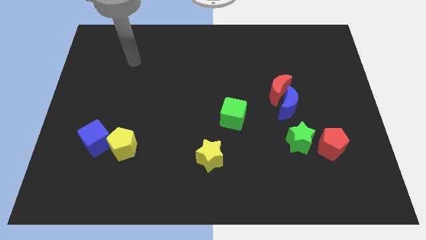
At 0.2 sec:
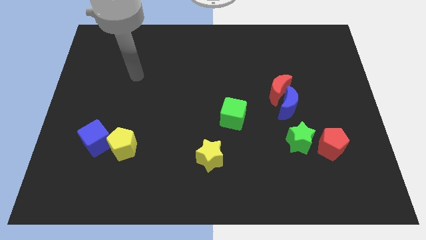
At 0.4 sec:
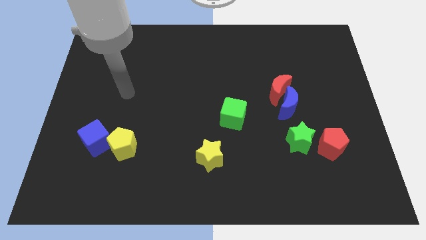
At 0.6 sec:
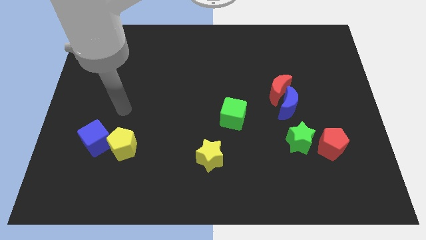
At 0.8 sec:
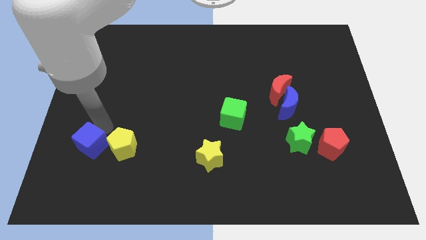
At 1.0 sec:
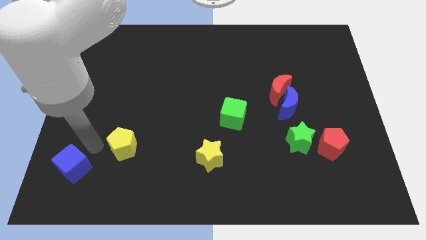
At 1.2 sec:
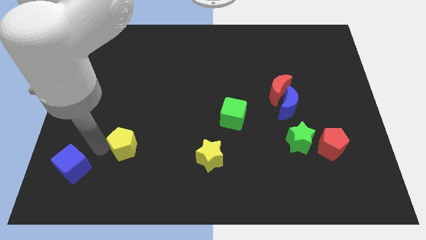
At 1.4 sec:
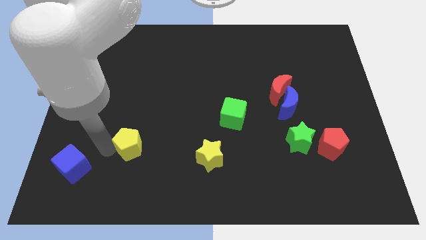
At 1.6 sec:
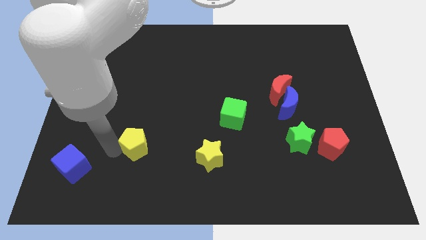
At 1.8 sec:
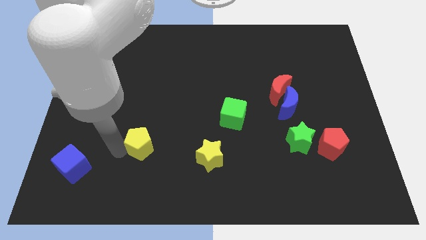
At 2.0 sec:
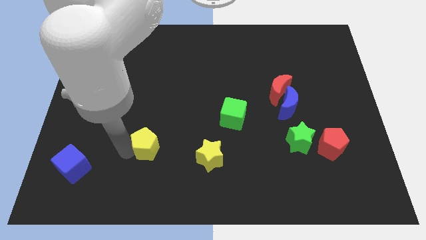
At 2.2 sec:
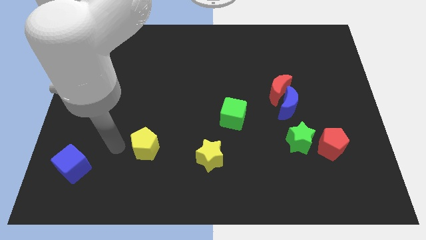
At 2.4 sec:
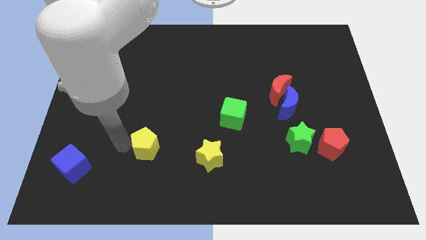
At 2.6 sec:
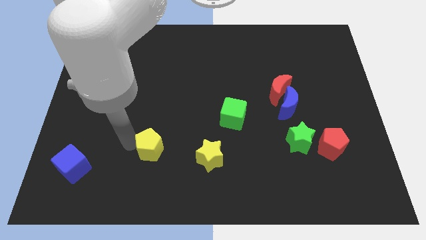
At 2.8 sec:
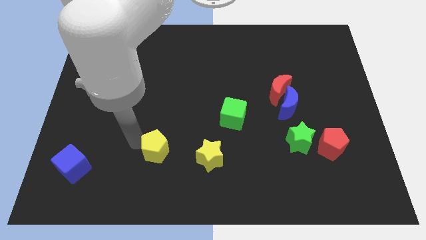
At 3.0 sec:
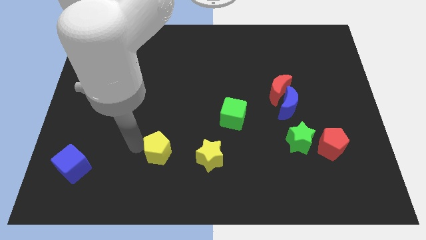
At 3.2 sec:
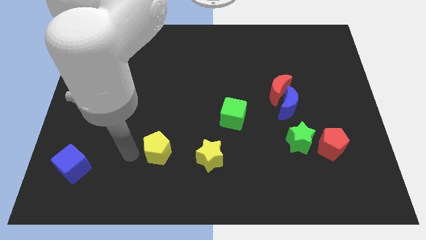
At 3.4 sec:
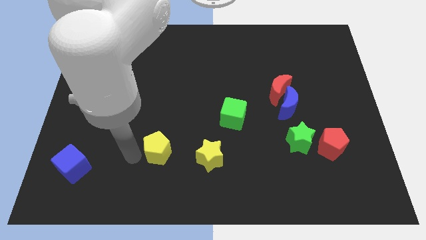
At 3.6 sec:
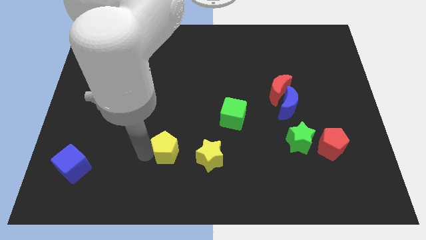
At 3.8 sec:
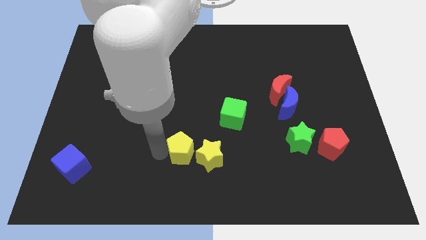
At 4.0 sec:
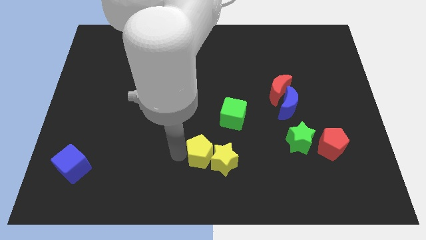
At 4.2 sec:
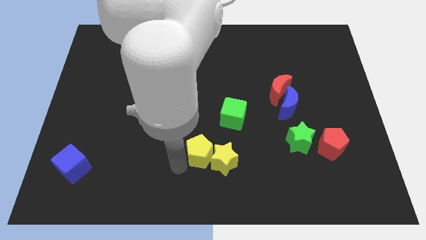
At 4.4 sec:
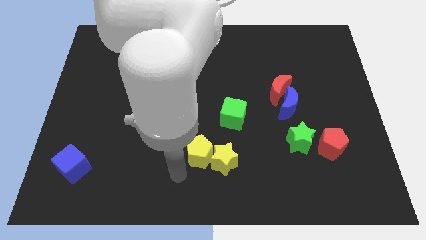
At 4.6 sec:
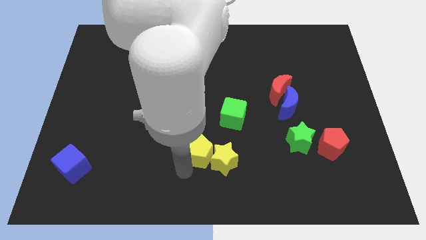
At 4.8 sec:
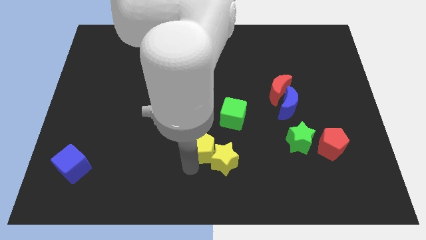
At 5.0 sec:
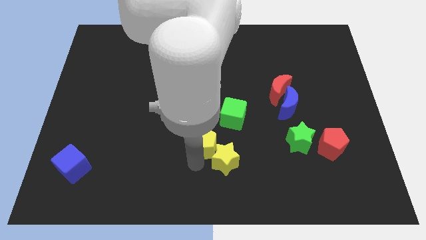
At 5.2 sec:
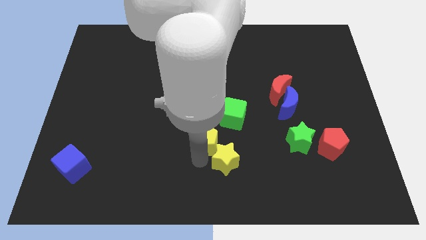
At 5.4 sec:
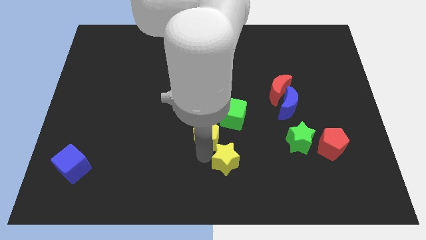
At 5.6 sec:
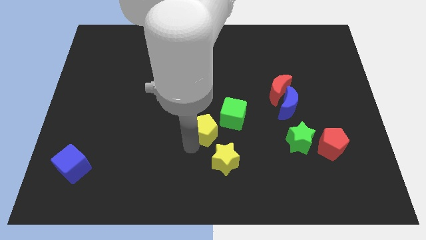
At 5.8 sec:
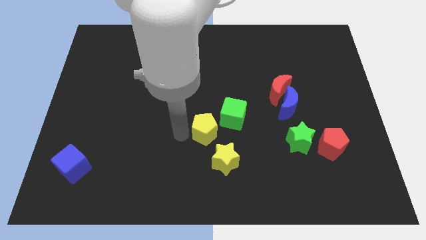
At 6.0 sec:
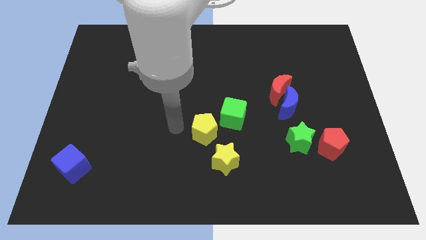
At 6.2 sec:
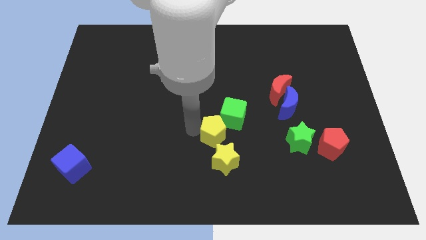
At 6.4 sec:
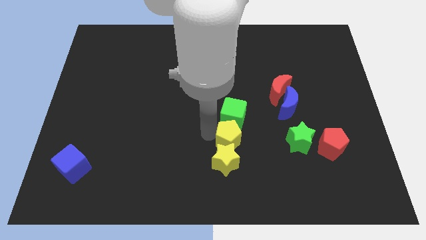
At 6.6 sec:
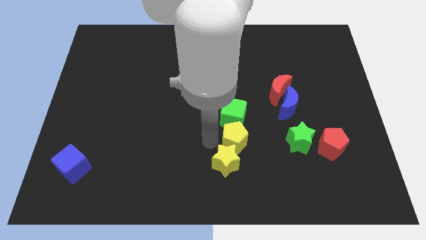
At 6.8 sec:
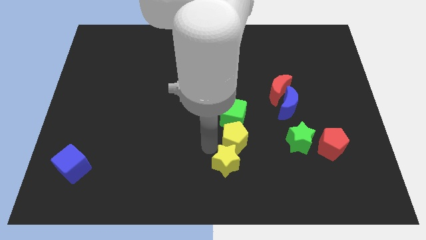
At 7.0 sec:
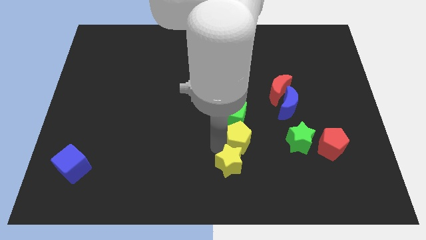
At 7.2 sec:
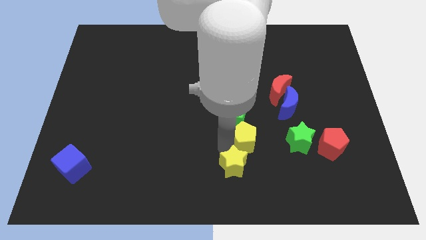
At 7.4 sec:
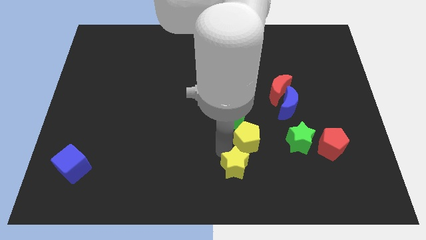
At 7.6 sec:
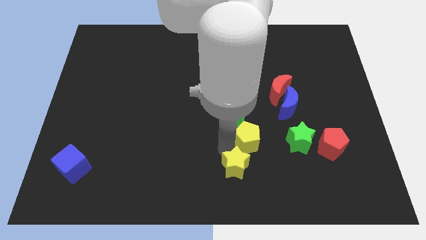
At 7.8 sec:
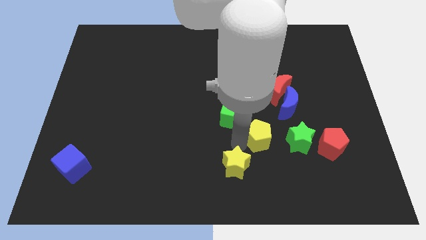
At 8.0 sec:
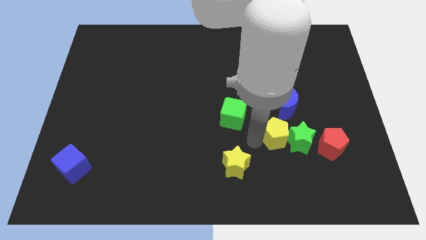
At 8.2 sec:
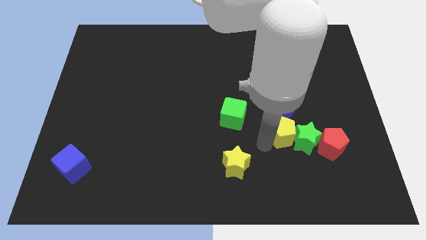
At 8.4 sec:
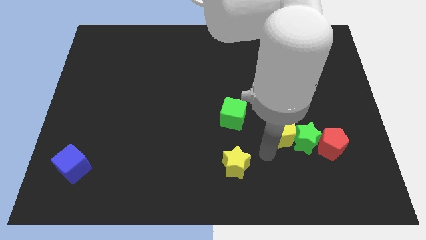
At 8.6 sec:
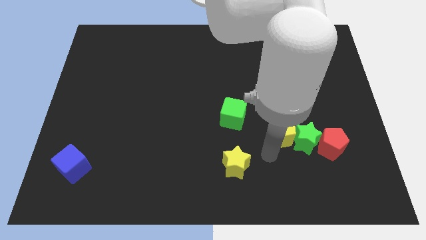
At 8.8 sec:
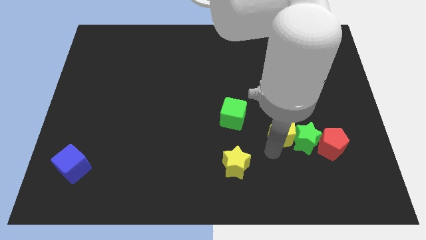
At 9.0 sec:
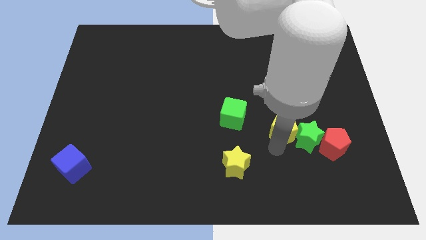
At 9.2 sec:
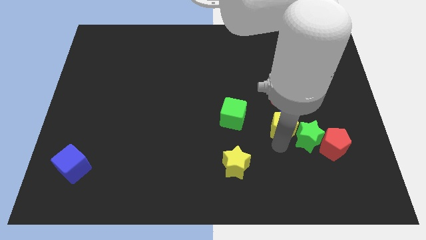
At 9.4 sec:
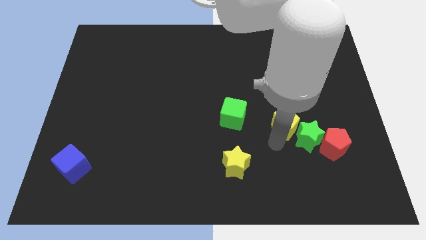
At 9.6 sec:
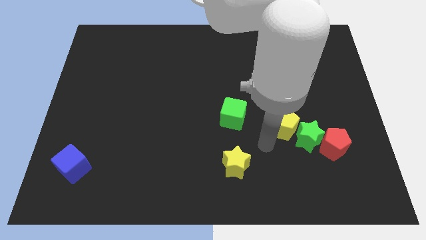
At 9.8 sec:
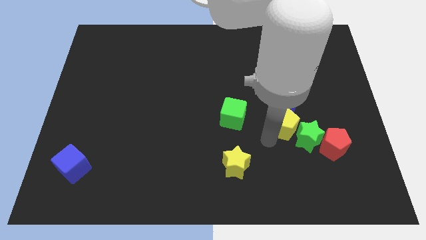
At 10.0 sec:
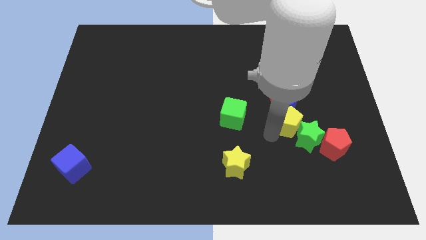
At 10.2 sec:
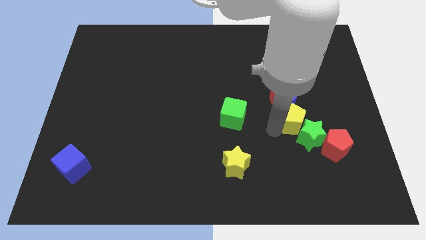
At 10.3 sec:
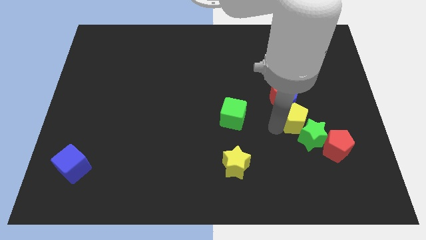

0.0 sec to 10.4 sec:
push the yellow pentagon diagonally down and to the right of the red moon
